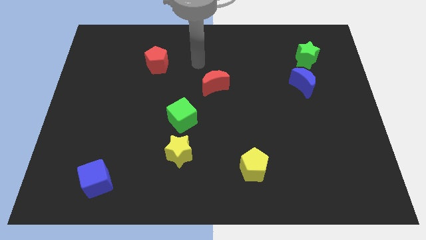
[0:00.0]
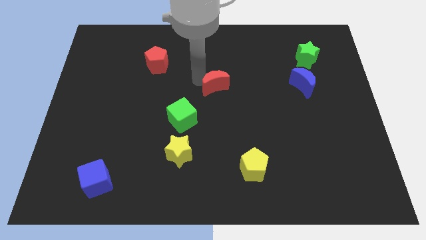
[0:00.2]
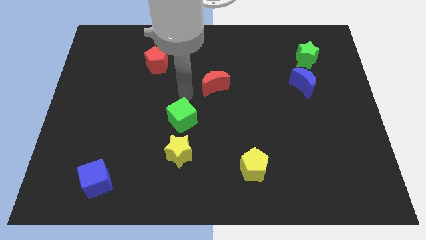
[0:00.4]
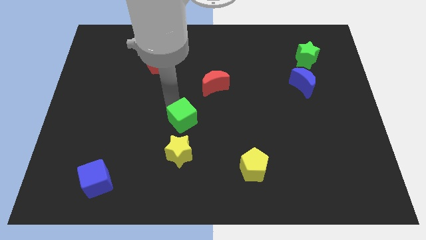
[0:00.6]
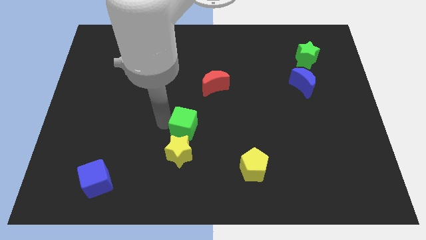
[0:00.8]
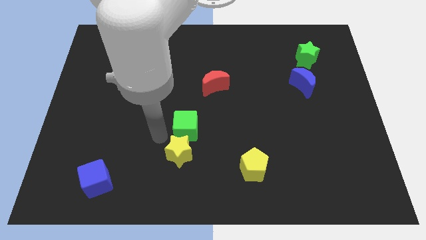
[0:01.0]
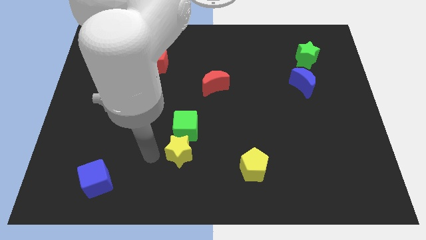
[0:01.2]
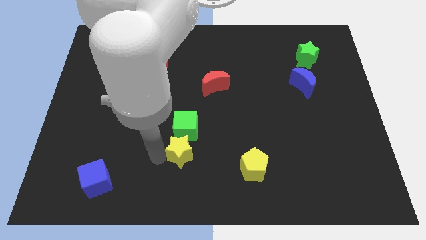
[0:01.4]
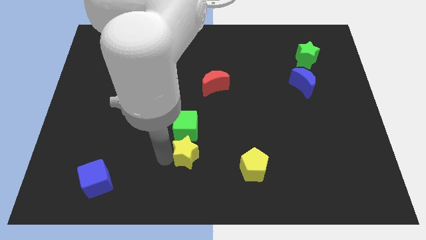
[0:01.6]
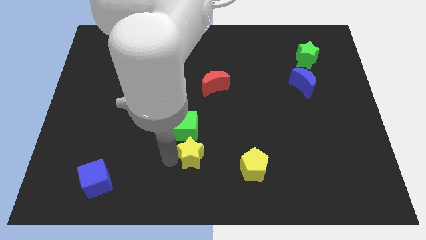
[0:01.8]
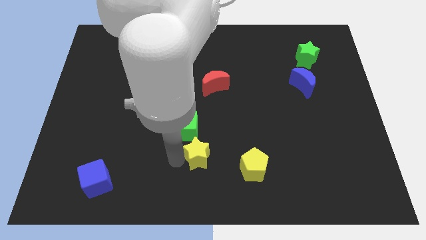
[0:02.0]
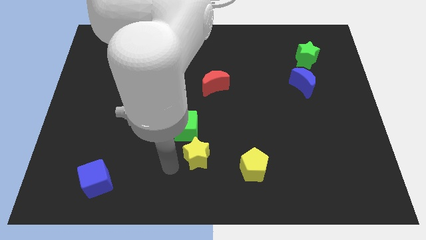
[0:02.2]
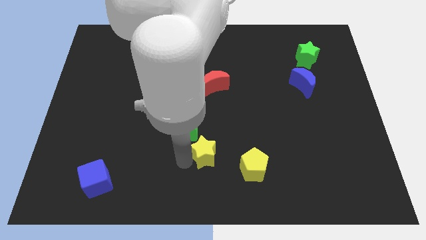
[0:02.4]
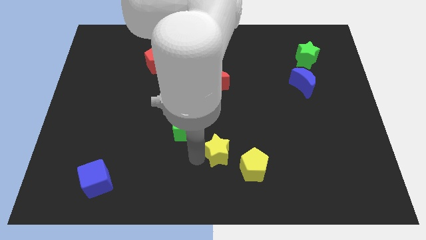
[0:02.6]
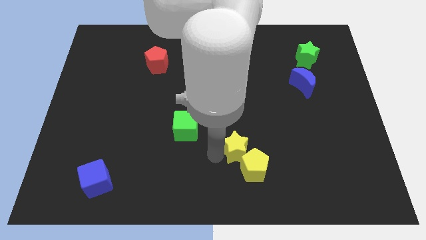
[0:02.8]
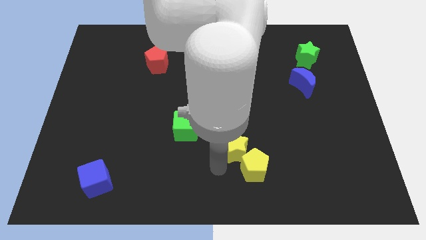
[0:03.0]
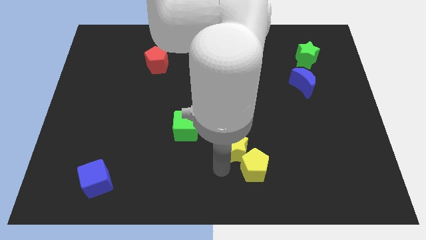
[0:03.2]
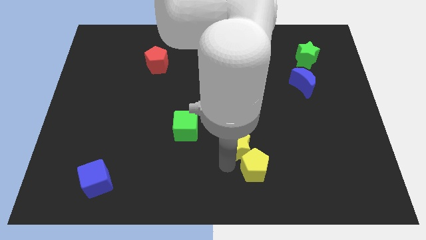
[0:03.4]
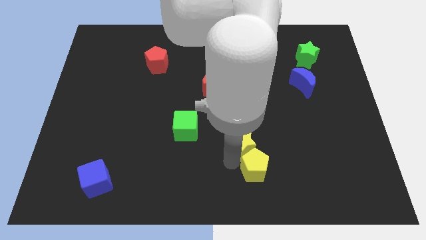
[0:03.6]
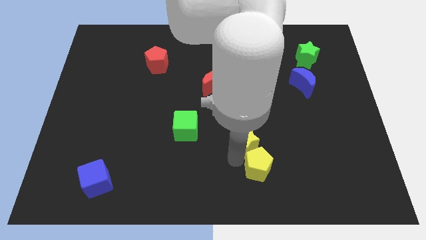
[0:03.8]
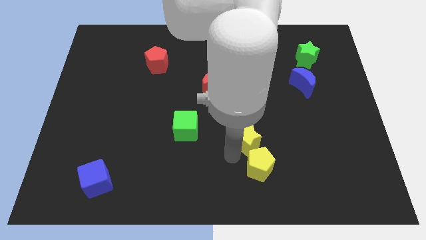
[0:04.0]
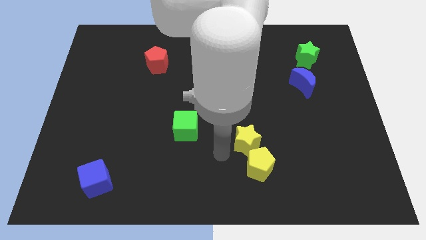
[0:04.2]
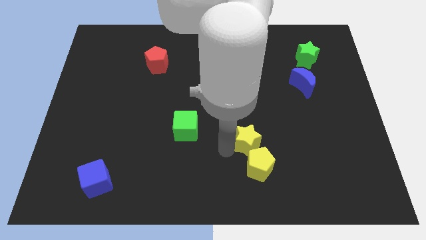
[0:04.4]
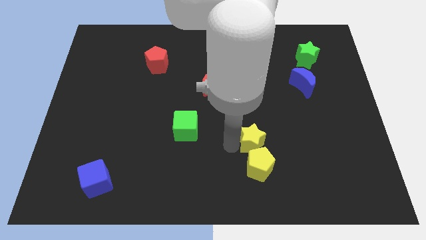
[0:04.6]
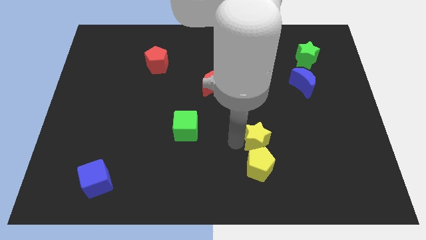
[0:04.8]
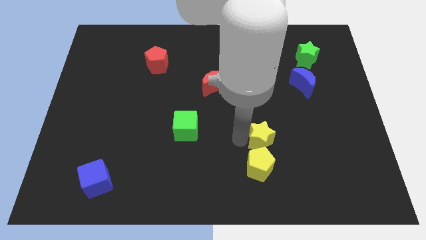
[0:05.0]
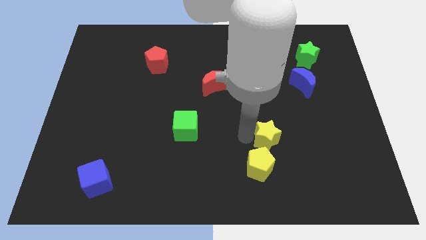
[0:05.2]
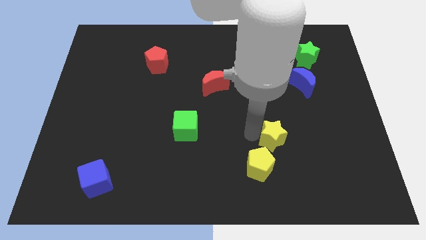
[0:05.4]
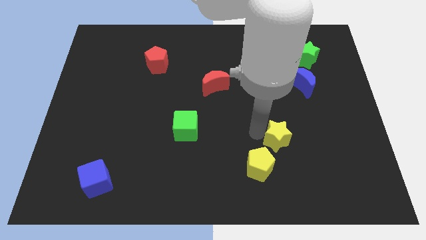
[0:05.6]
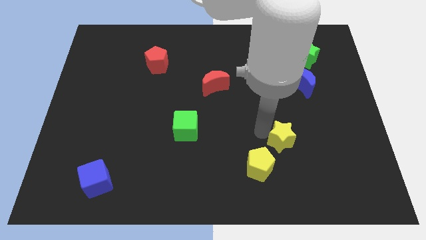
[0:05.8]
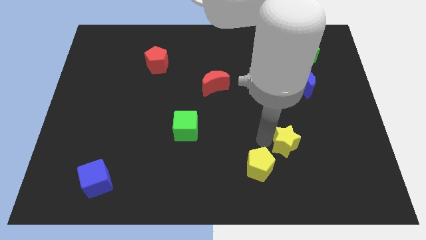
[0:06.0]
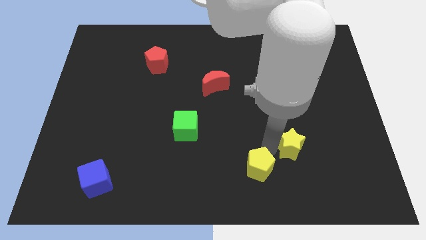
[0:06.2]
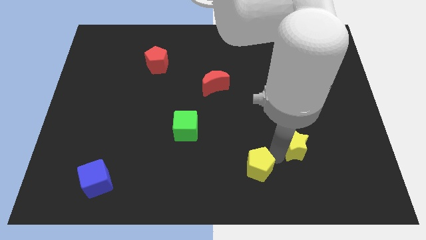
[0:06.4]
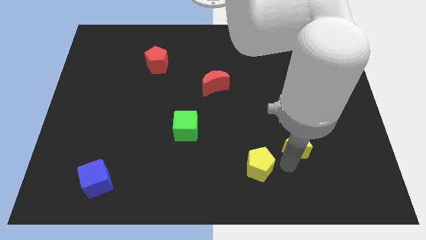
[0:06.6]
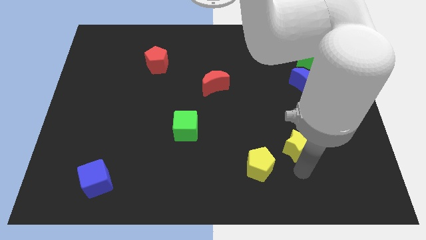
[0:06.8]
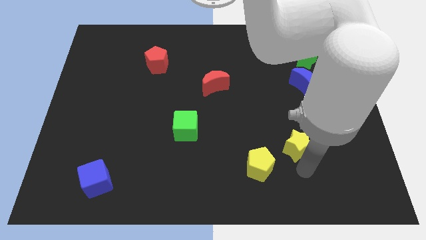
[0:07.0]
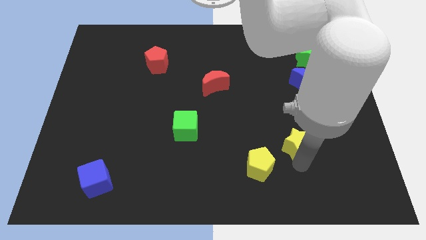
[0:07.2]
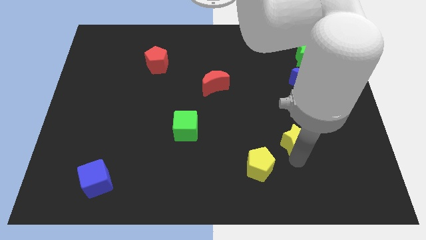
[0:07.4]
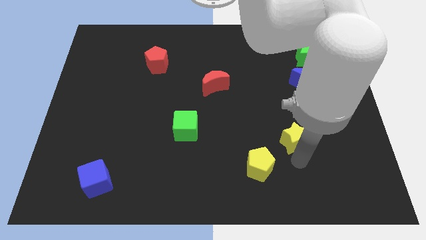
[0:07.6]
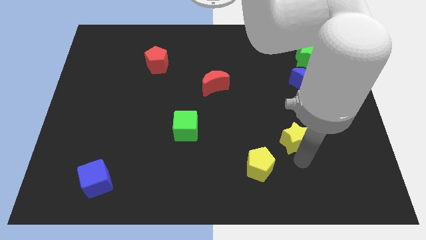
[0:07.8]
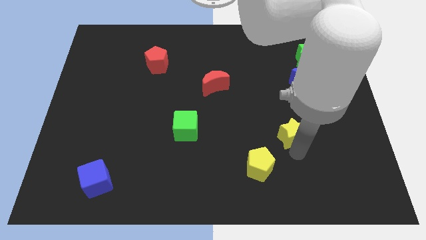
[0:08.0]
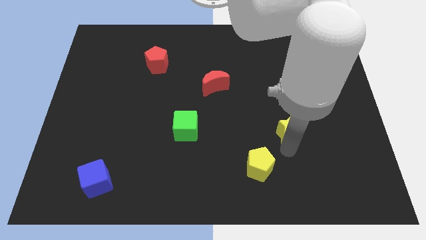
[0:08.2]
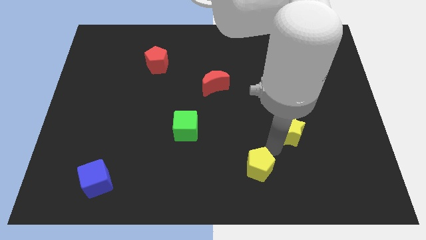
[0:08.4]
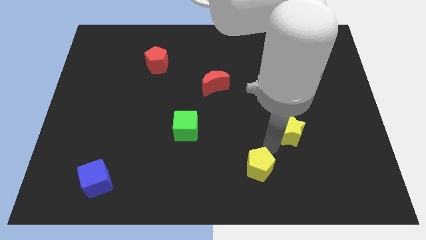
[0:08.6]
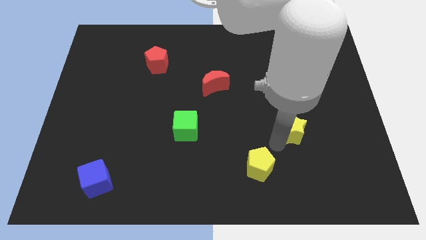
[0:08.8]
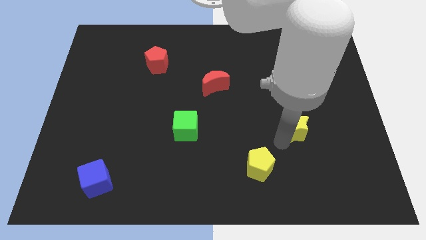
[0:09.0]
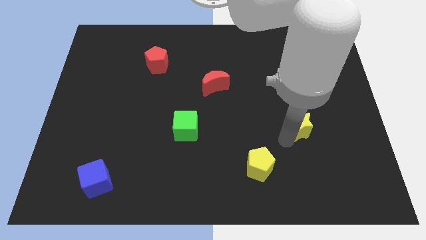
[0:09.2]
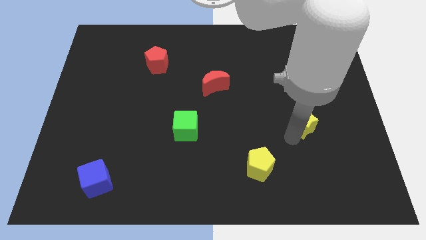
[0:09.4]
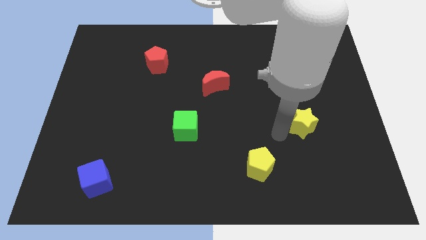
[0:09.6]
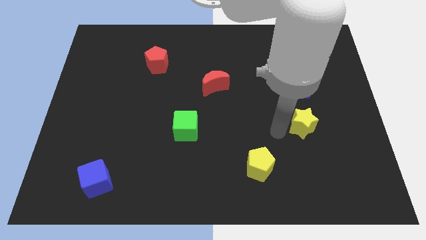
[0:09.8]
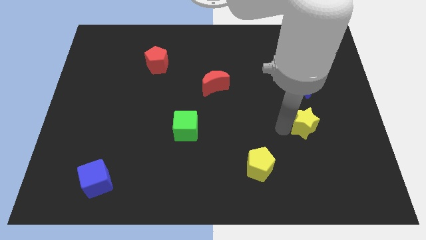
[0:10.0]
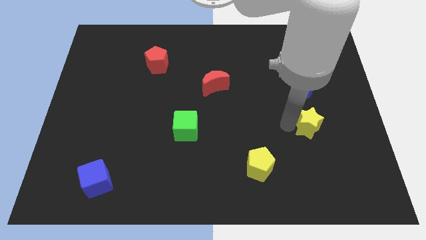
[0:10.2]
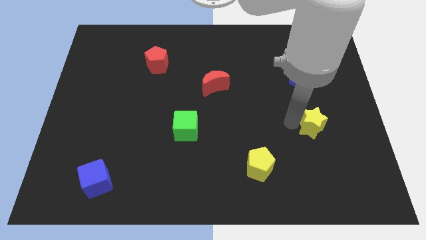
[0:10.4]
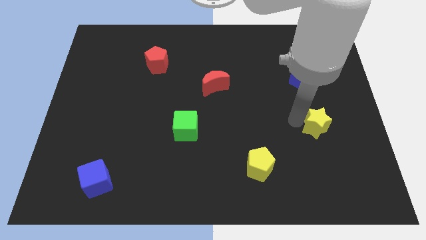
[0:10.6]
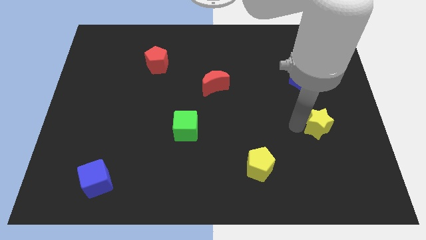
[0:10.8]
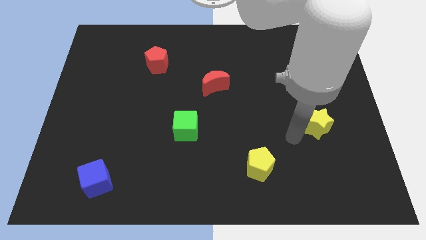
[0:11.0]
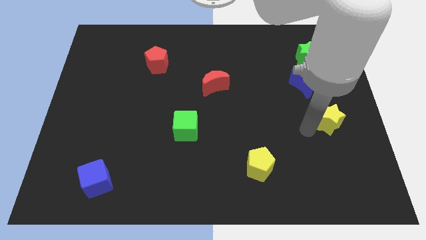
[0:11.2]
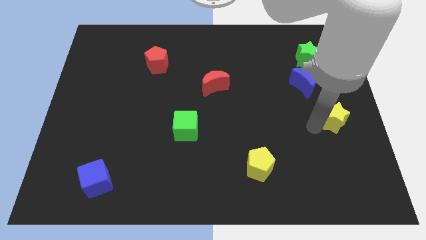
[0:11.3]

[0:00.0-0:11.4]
put the yellow star to the right side
